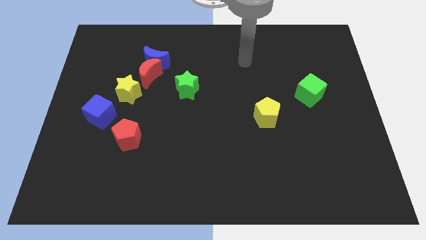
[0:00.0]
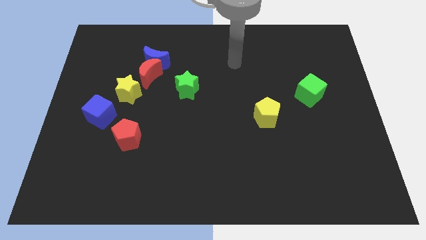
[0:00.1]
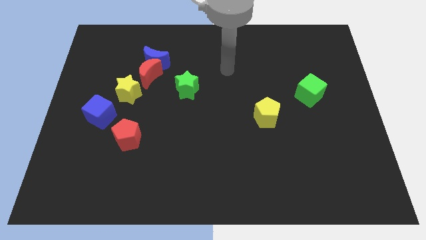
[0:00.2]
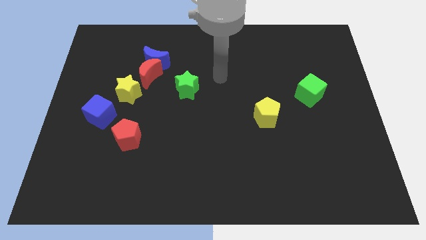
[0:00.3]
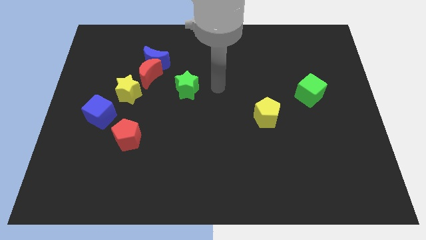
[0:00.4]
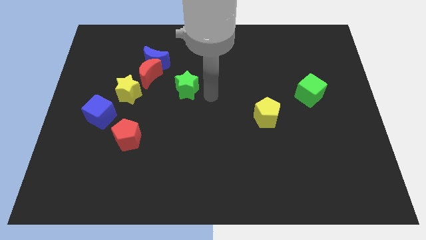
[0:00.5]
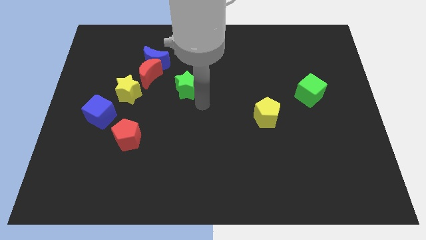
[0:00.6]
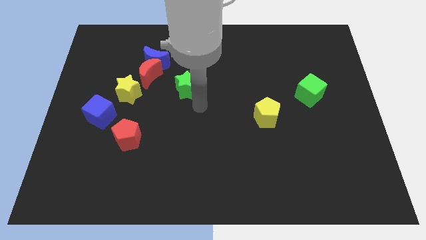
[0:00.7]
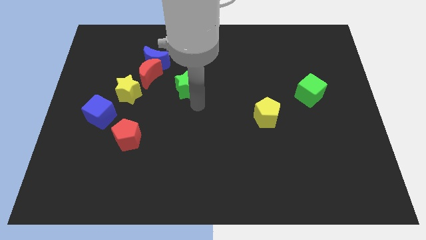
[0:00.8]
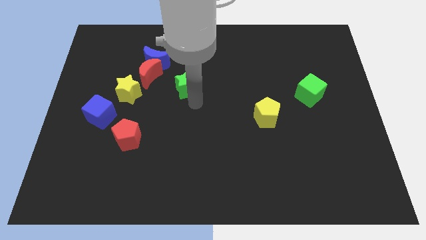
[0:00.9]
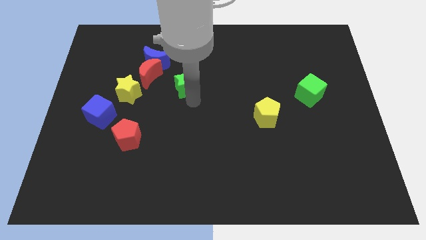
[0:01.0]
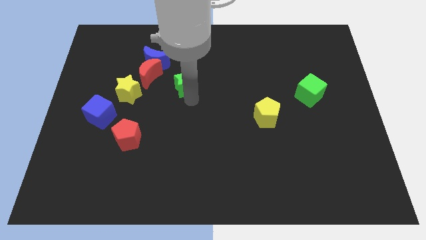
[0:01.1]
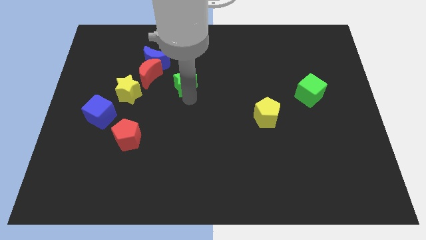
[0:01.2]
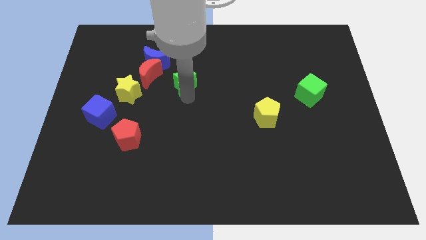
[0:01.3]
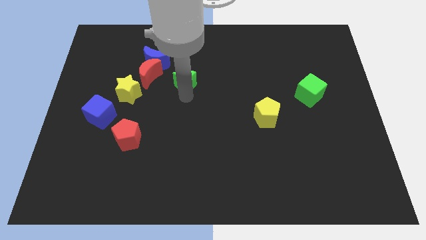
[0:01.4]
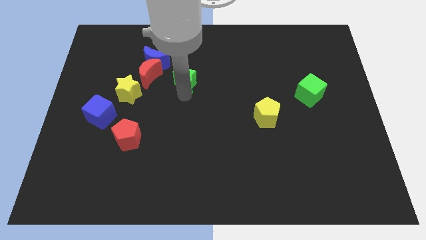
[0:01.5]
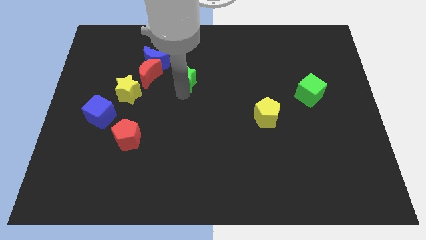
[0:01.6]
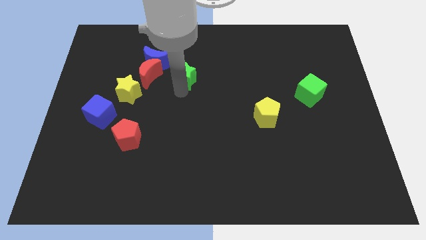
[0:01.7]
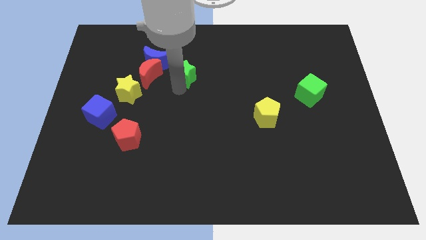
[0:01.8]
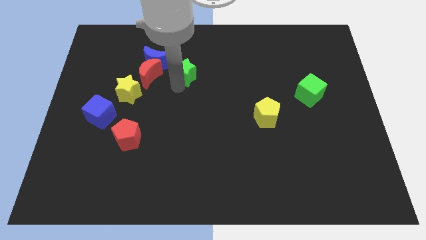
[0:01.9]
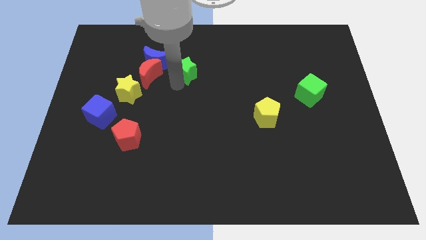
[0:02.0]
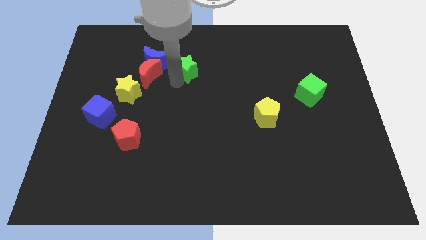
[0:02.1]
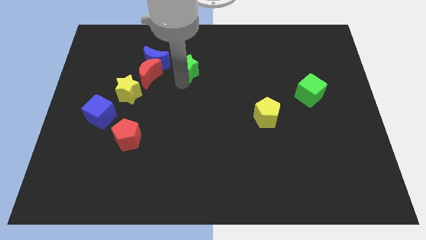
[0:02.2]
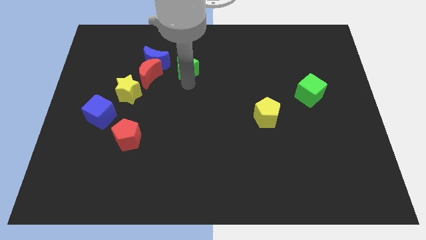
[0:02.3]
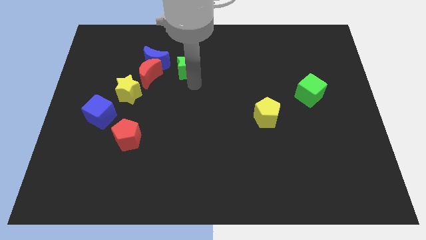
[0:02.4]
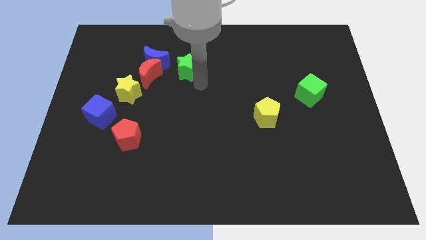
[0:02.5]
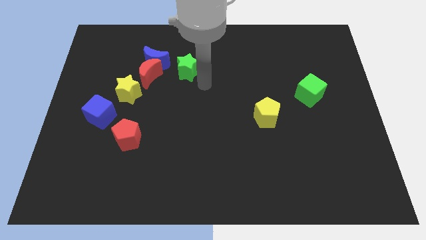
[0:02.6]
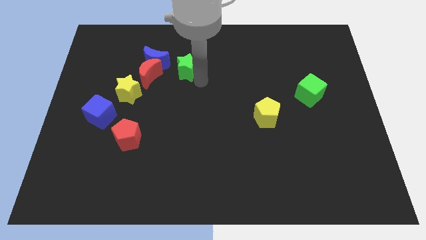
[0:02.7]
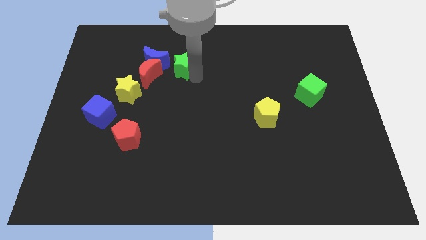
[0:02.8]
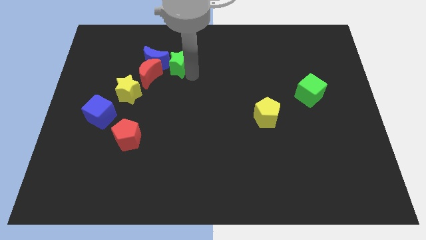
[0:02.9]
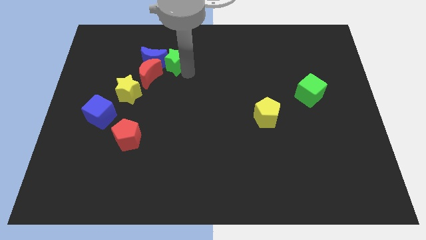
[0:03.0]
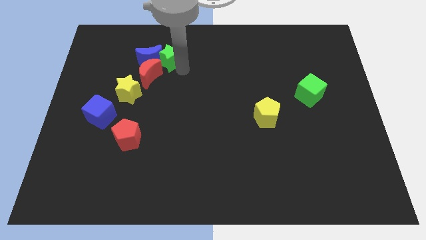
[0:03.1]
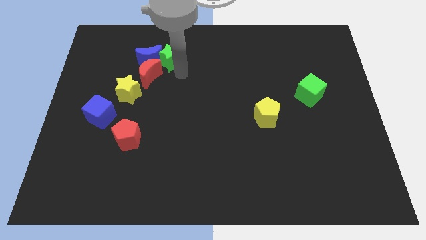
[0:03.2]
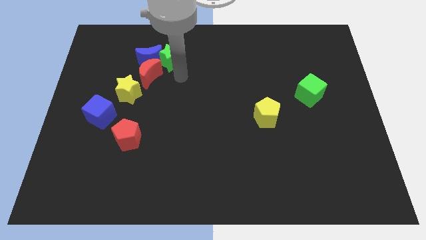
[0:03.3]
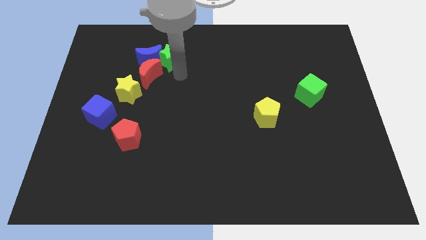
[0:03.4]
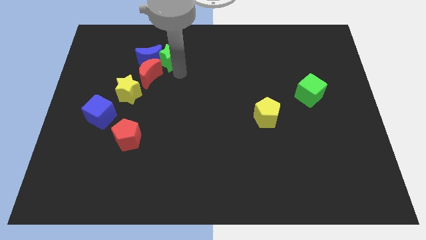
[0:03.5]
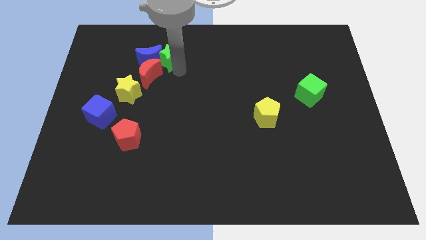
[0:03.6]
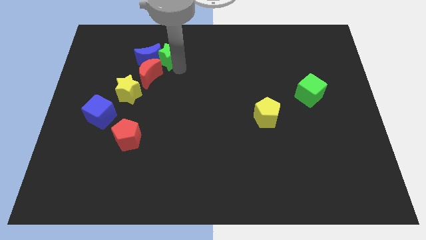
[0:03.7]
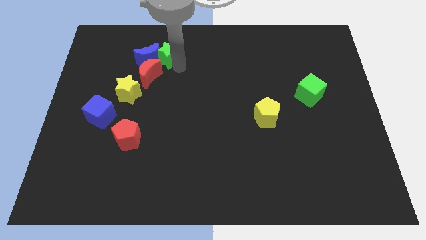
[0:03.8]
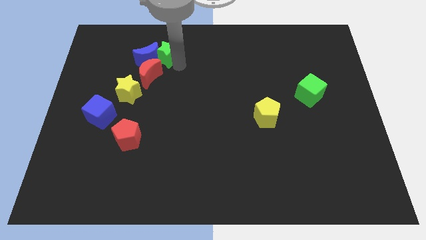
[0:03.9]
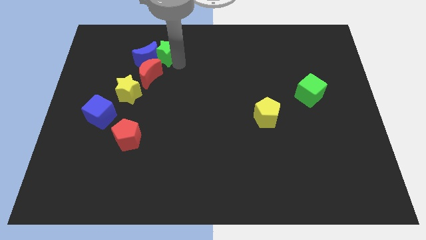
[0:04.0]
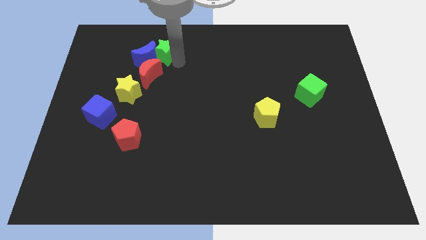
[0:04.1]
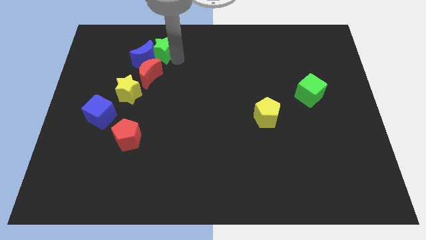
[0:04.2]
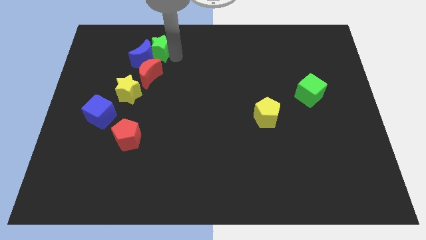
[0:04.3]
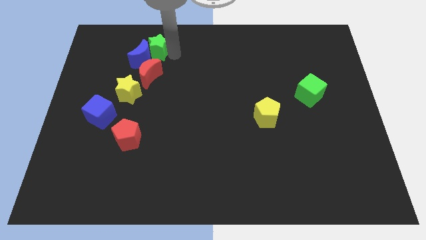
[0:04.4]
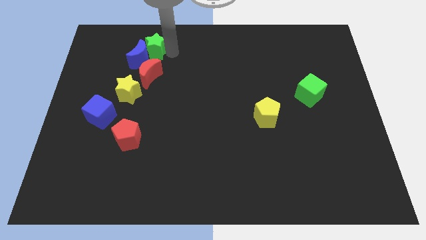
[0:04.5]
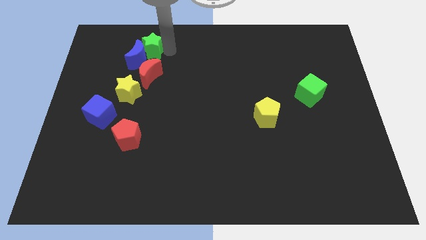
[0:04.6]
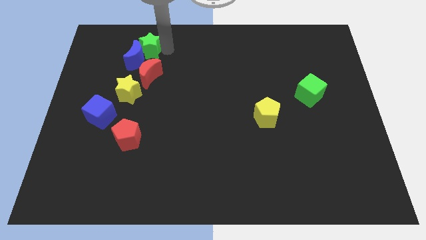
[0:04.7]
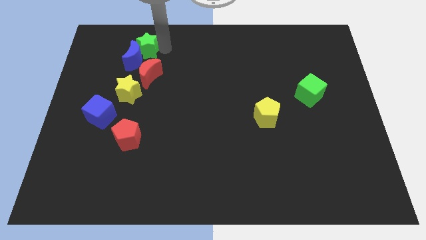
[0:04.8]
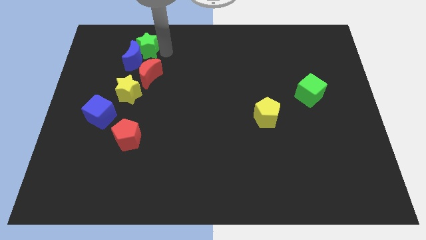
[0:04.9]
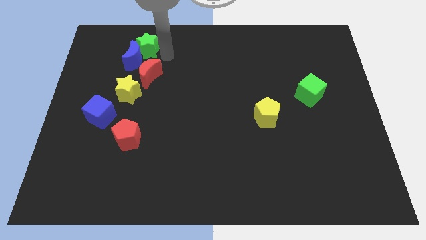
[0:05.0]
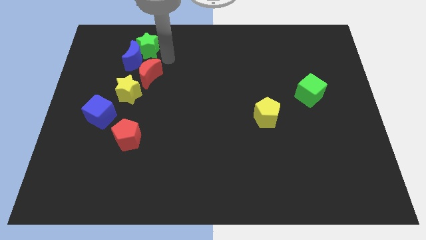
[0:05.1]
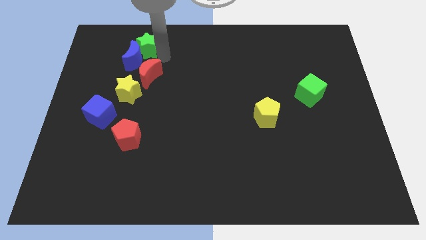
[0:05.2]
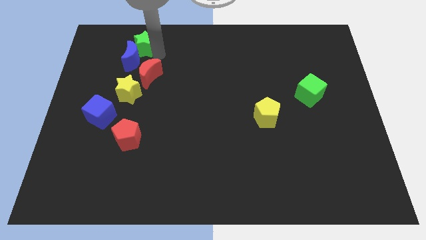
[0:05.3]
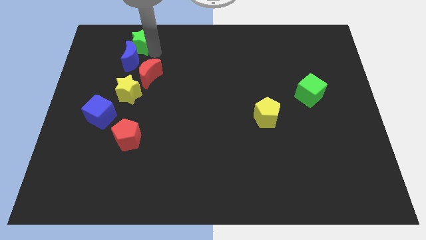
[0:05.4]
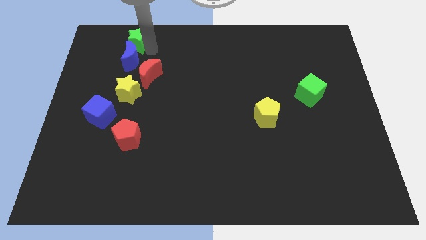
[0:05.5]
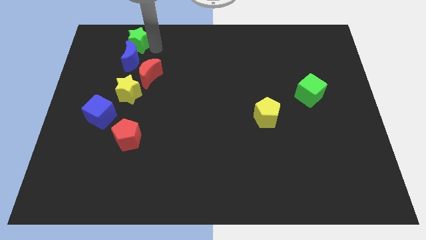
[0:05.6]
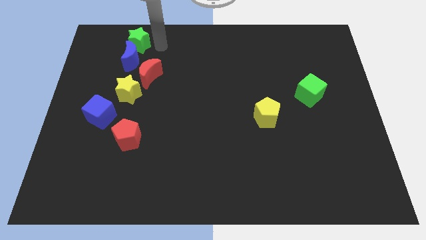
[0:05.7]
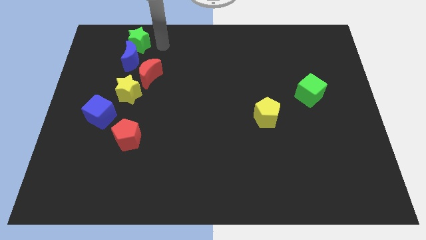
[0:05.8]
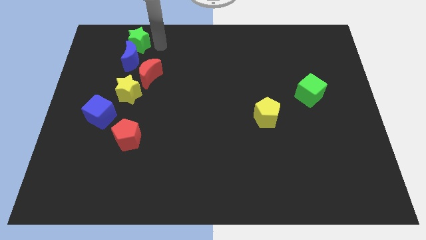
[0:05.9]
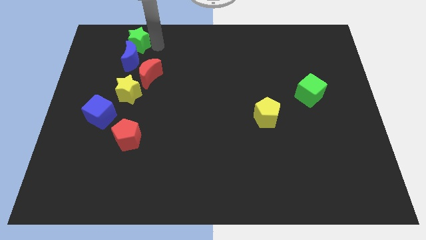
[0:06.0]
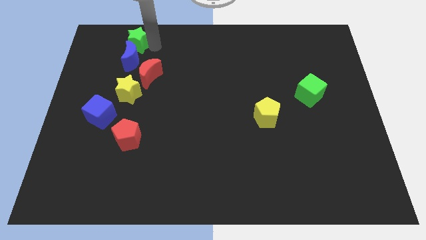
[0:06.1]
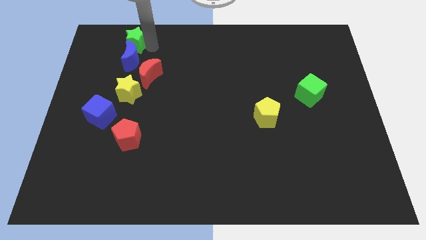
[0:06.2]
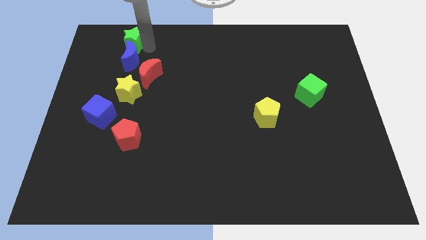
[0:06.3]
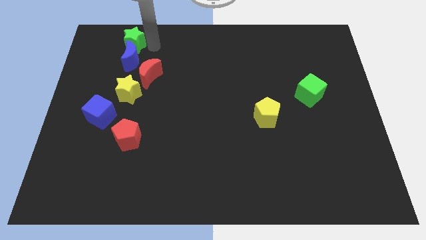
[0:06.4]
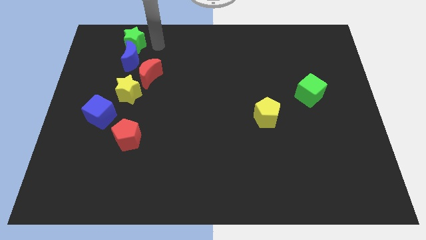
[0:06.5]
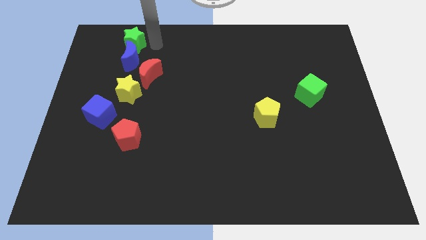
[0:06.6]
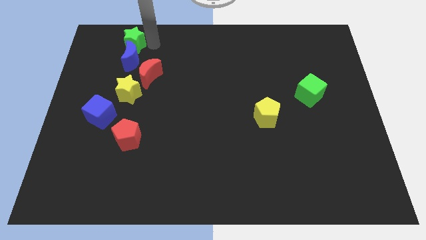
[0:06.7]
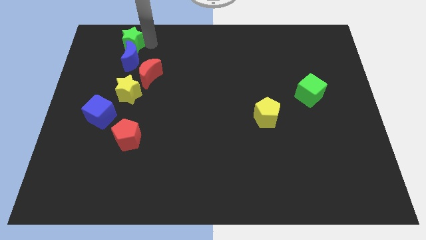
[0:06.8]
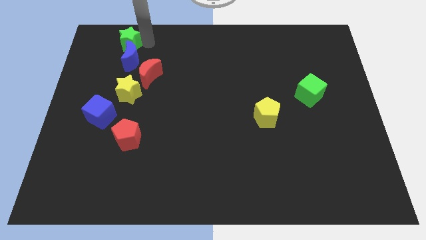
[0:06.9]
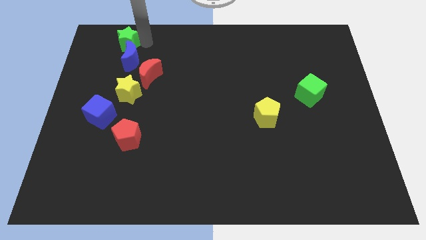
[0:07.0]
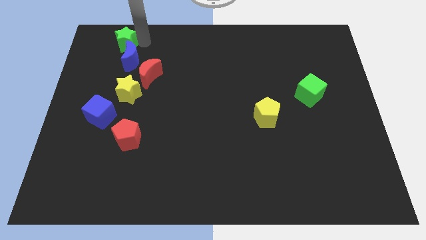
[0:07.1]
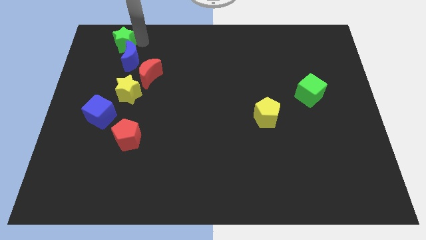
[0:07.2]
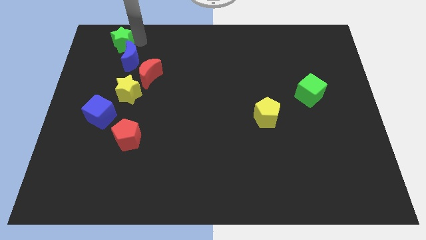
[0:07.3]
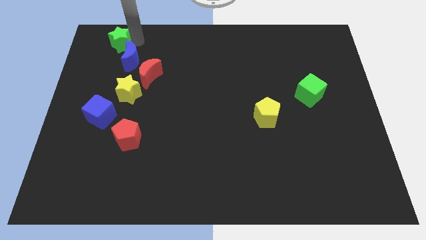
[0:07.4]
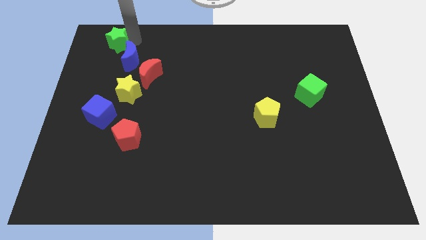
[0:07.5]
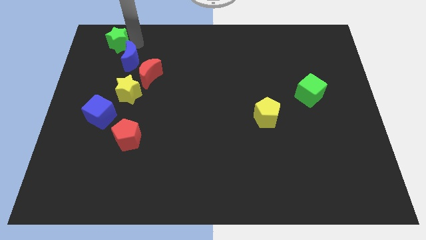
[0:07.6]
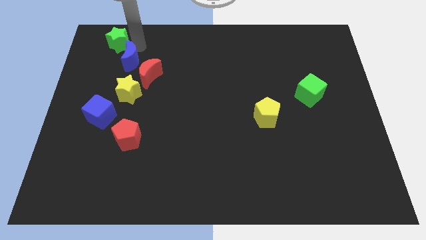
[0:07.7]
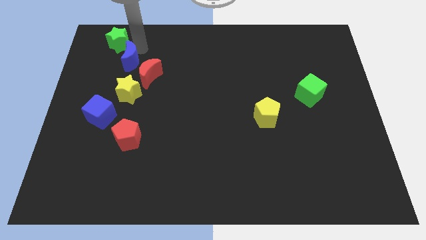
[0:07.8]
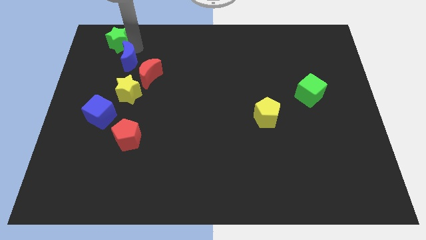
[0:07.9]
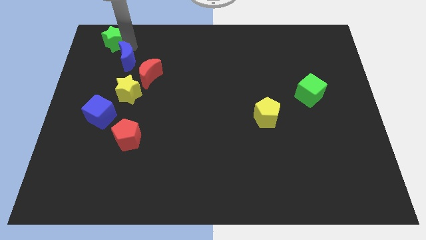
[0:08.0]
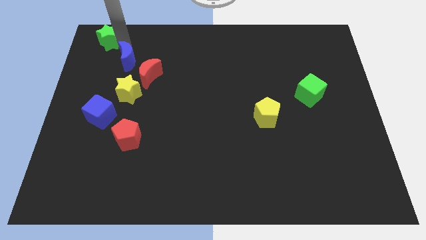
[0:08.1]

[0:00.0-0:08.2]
push the green star to the top left
